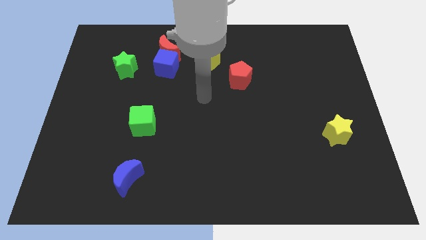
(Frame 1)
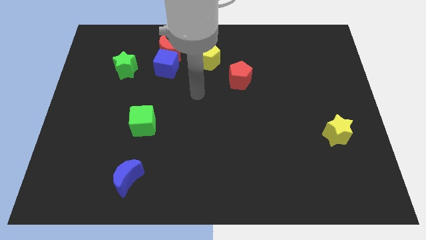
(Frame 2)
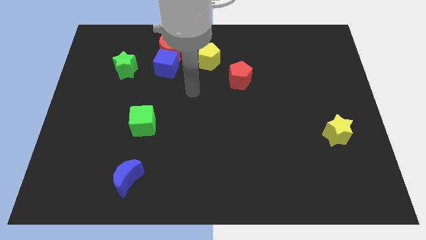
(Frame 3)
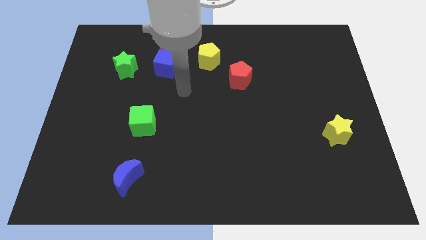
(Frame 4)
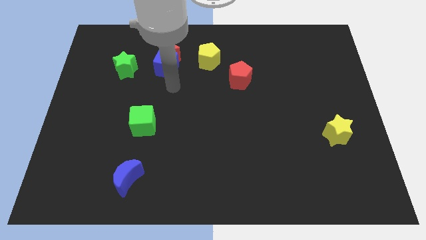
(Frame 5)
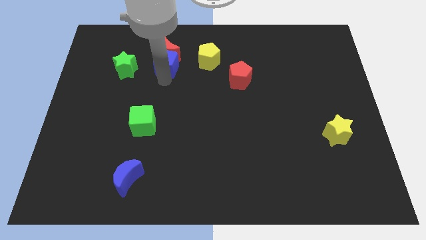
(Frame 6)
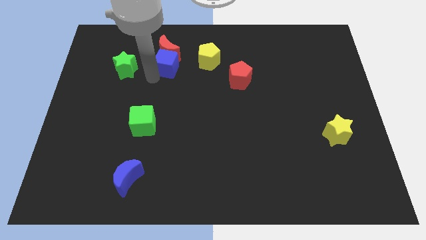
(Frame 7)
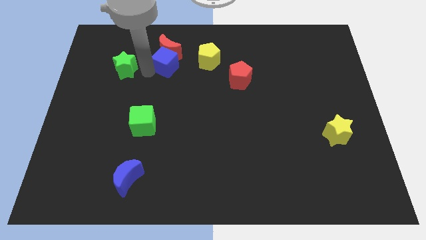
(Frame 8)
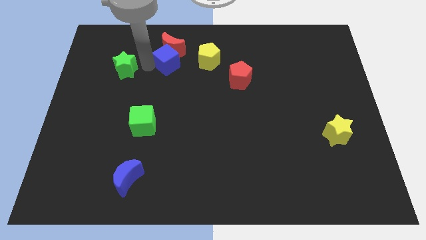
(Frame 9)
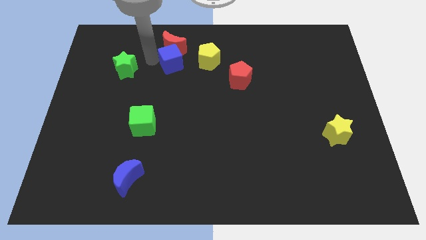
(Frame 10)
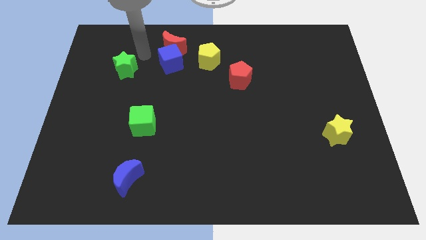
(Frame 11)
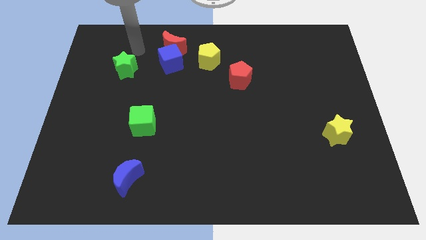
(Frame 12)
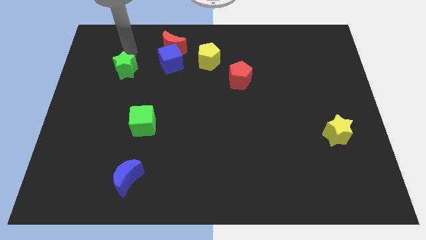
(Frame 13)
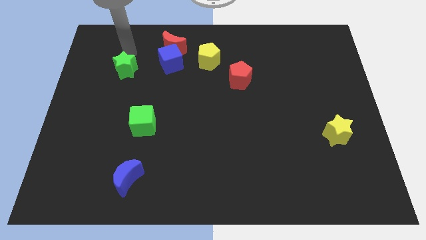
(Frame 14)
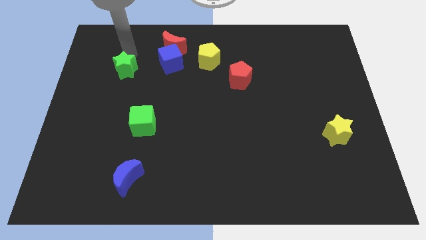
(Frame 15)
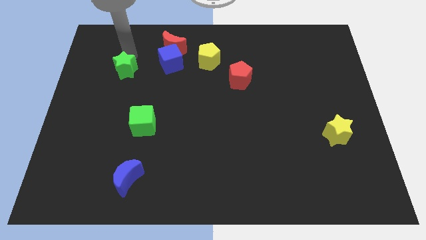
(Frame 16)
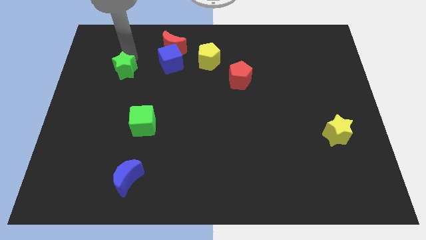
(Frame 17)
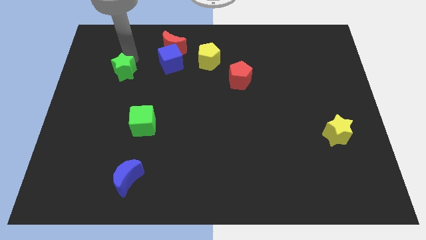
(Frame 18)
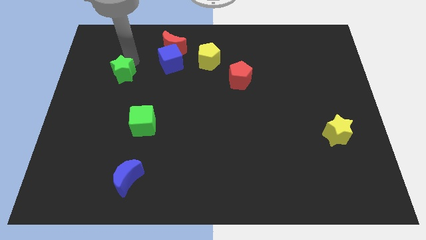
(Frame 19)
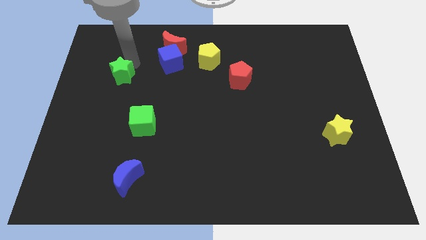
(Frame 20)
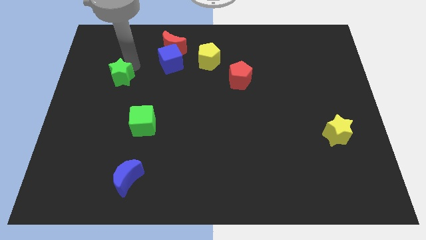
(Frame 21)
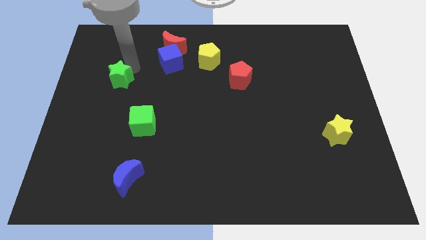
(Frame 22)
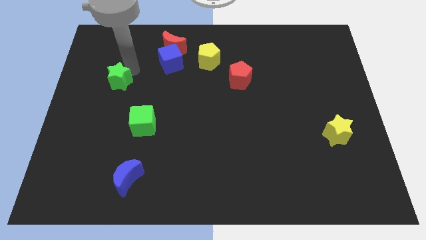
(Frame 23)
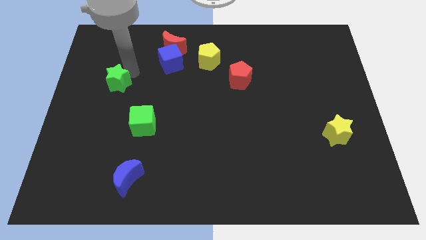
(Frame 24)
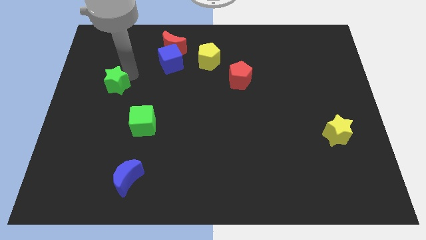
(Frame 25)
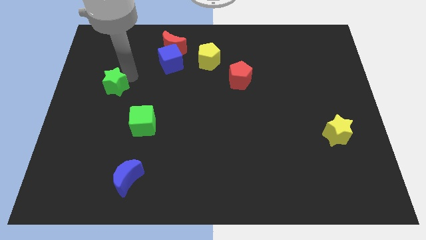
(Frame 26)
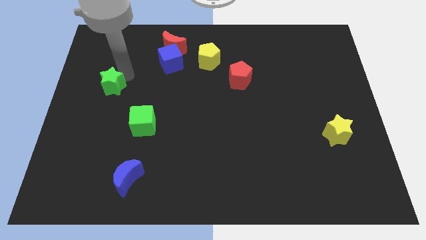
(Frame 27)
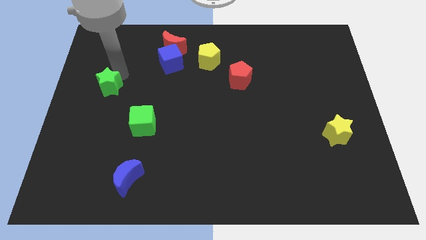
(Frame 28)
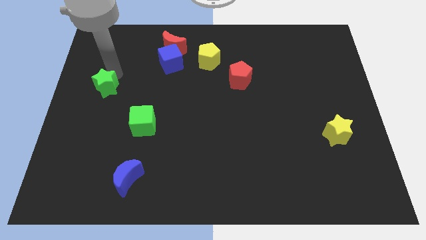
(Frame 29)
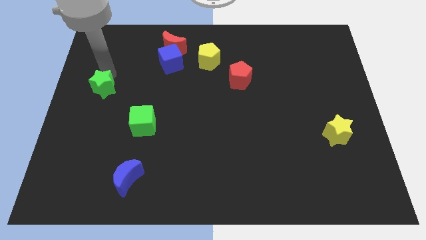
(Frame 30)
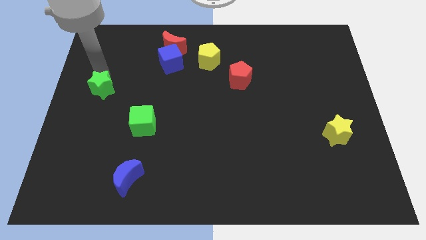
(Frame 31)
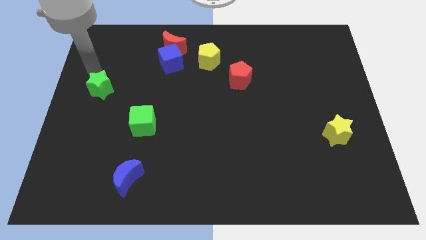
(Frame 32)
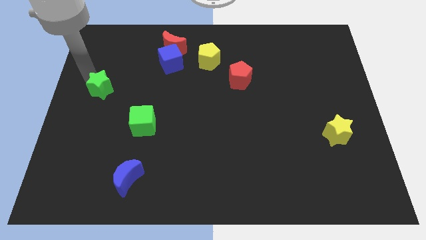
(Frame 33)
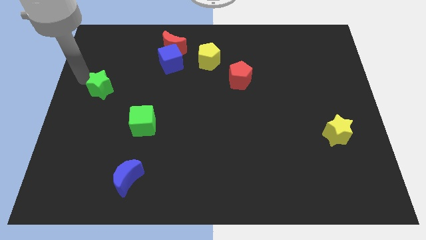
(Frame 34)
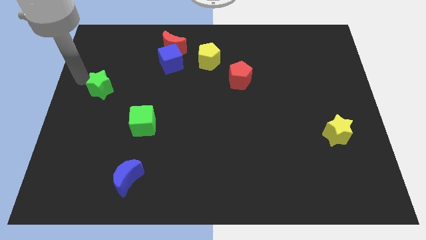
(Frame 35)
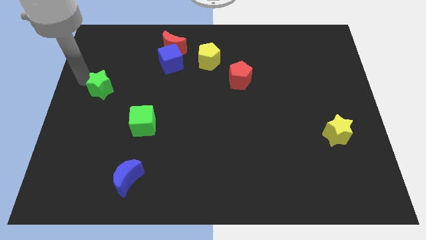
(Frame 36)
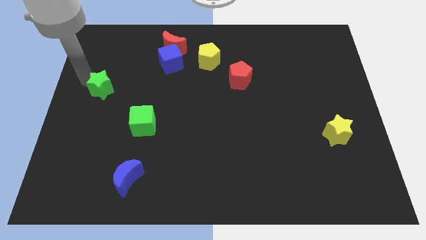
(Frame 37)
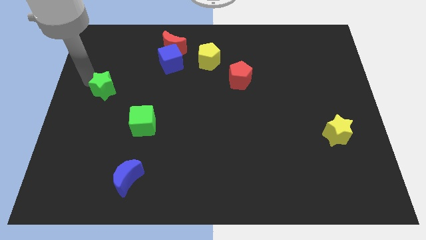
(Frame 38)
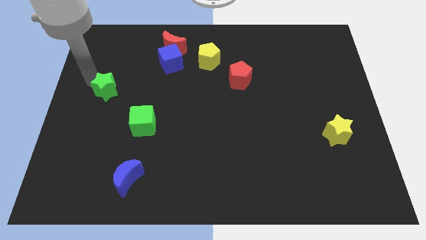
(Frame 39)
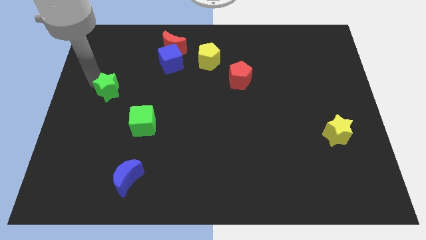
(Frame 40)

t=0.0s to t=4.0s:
move the green star a bit downwards

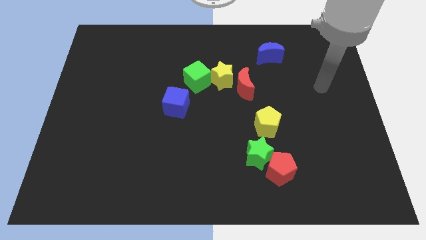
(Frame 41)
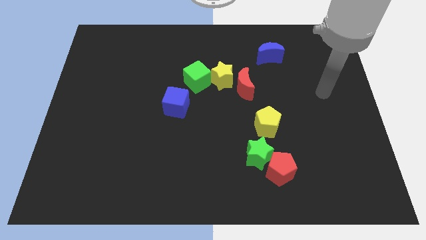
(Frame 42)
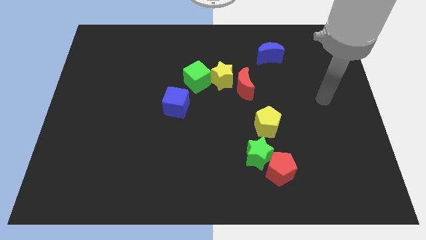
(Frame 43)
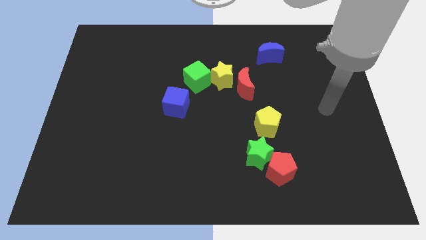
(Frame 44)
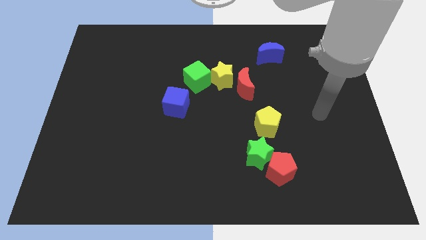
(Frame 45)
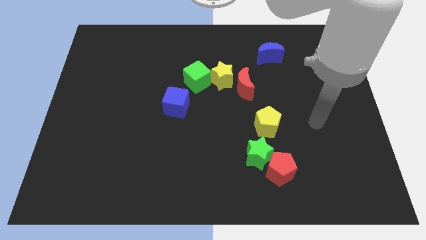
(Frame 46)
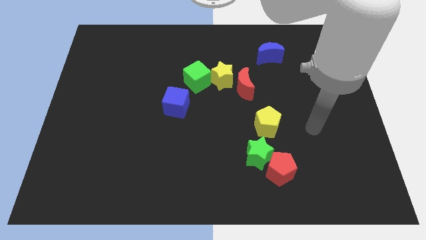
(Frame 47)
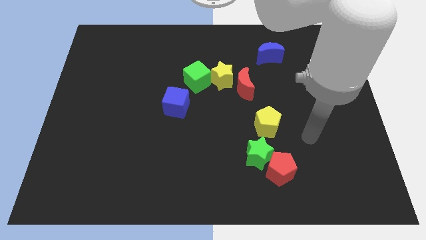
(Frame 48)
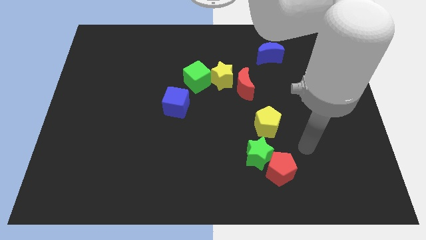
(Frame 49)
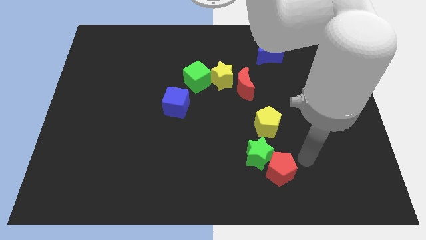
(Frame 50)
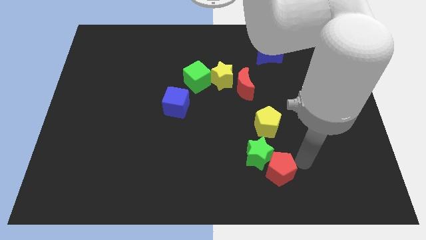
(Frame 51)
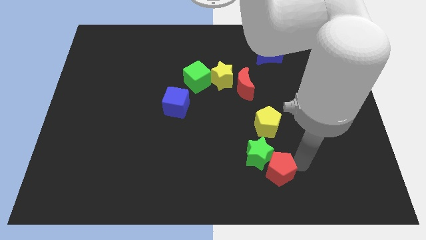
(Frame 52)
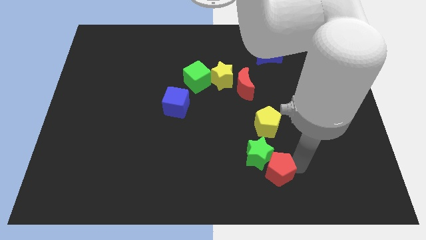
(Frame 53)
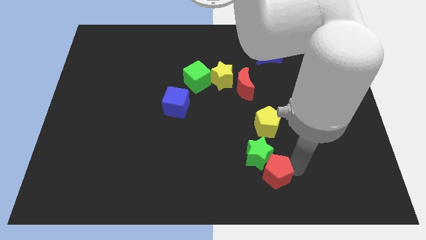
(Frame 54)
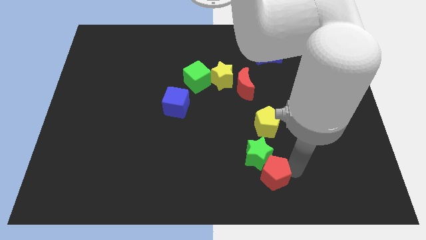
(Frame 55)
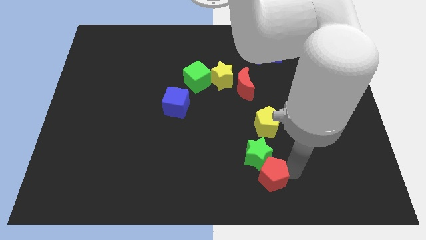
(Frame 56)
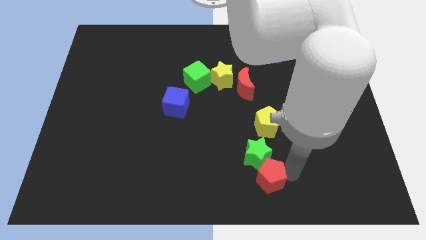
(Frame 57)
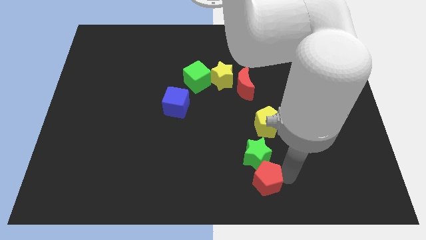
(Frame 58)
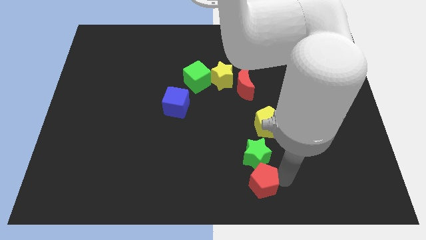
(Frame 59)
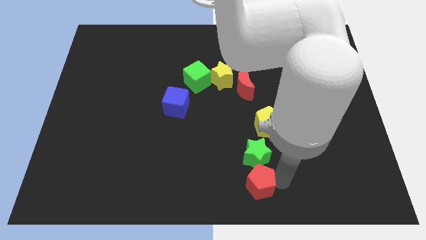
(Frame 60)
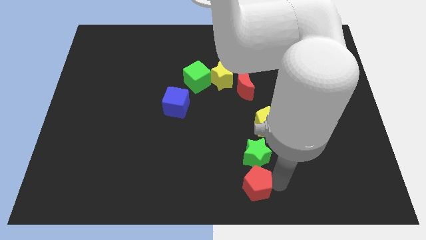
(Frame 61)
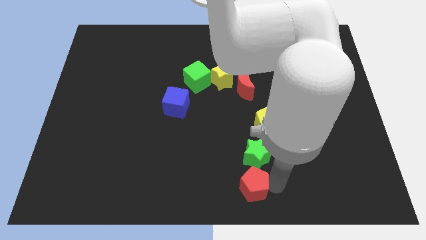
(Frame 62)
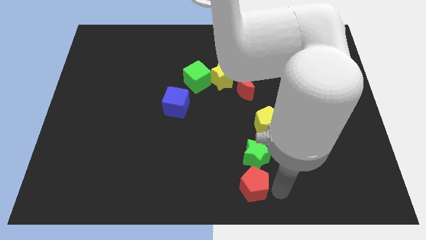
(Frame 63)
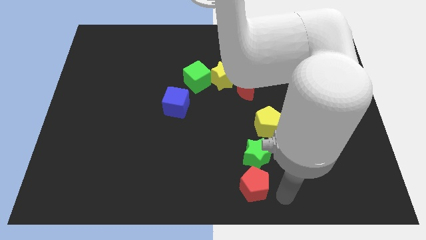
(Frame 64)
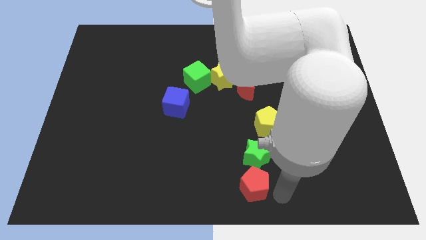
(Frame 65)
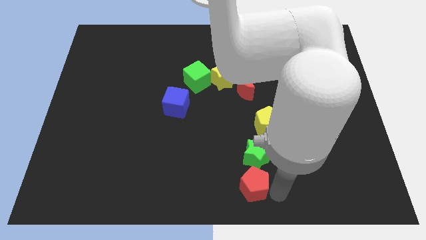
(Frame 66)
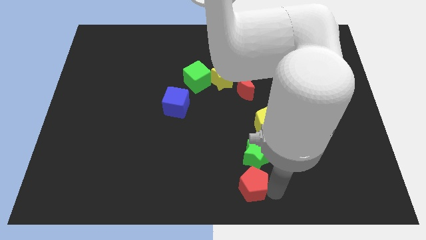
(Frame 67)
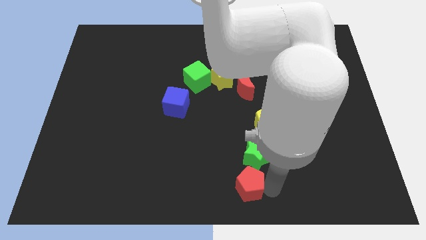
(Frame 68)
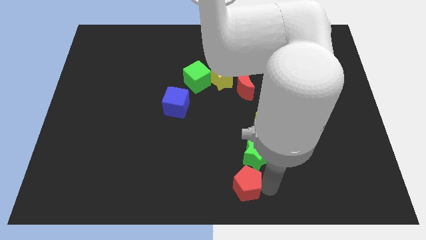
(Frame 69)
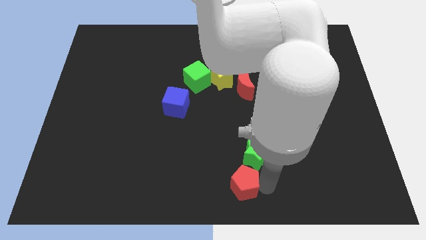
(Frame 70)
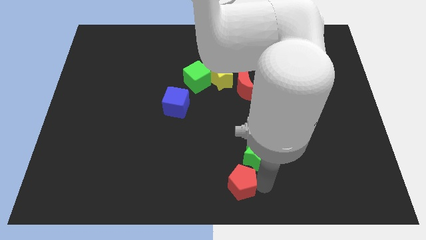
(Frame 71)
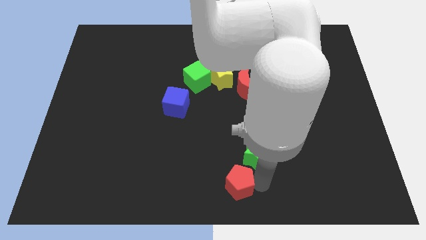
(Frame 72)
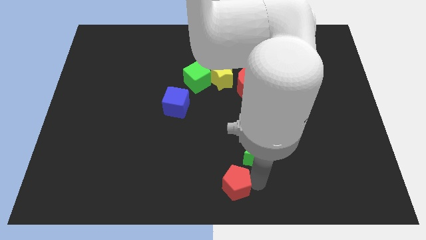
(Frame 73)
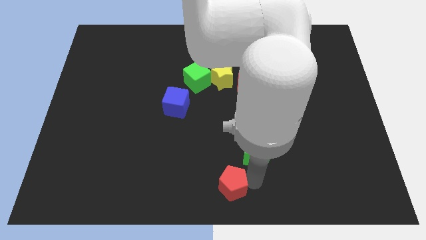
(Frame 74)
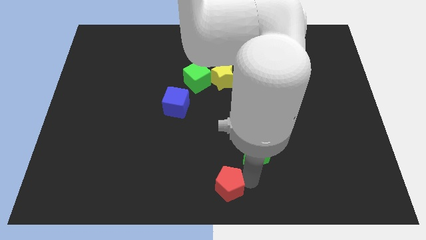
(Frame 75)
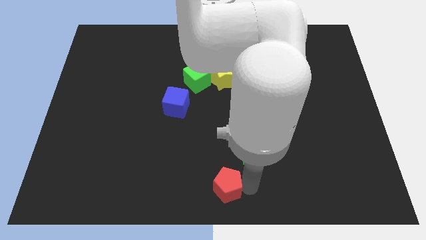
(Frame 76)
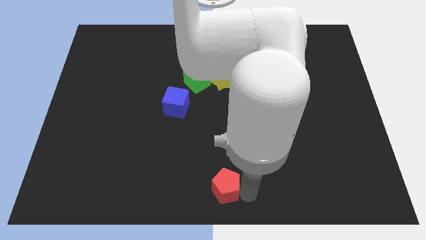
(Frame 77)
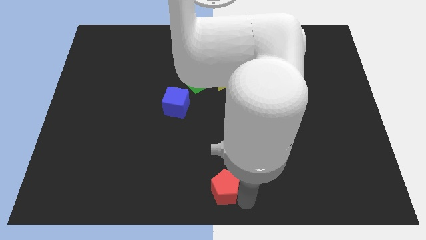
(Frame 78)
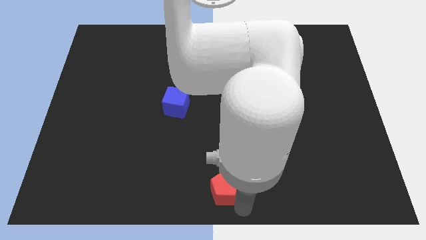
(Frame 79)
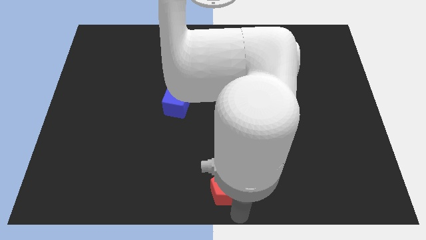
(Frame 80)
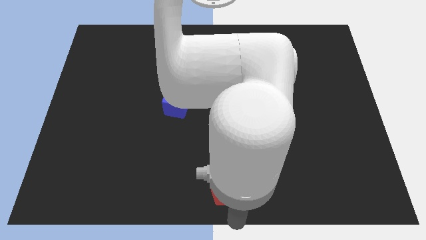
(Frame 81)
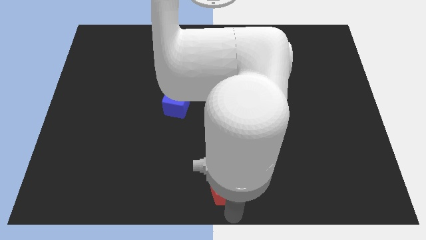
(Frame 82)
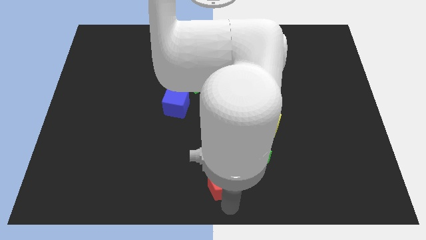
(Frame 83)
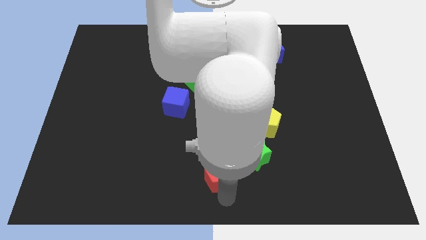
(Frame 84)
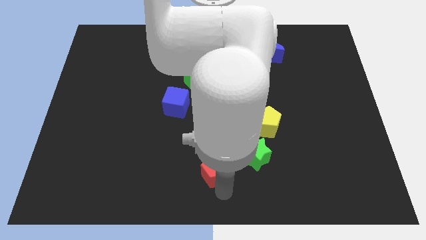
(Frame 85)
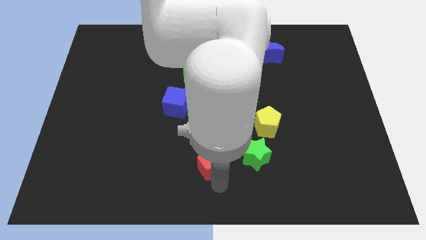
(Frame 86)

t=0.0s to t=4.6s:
slightly push the red pentagon upwards and left diagonally
